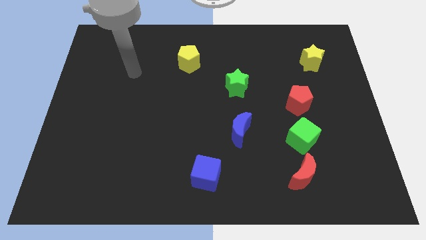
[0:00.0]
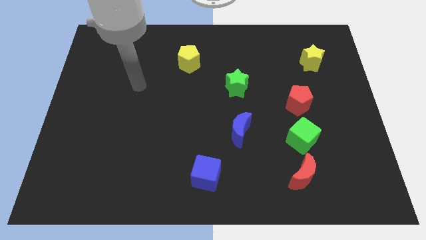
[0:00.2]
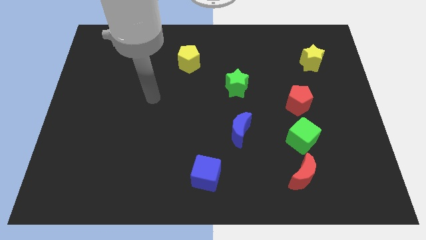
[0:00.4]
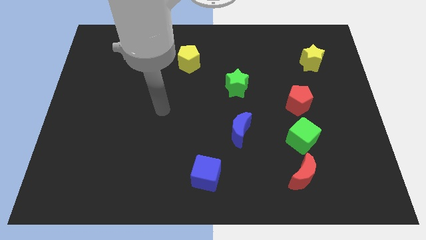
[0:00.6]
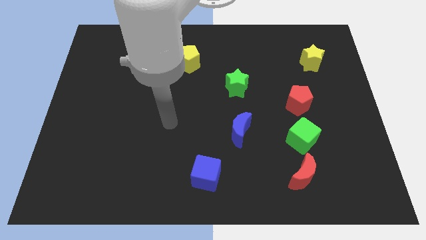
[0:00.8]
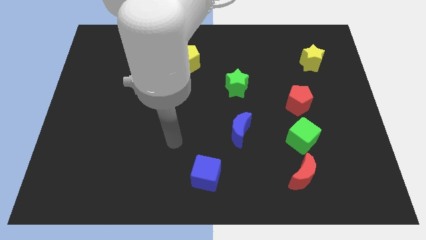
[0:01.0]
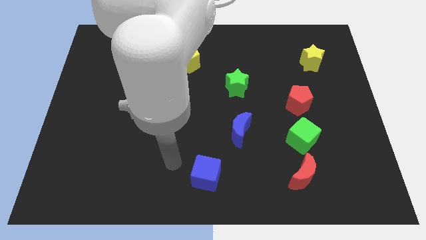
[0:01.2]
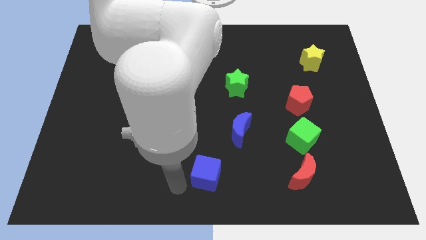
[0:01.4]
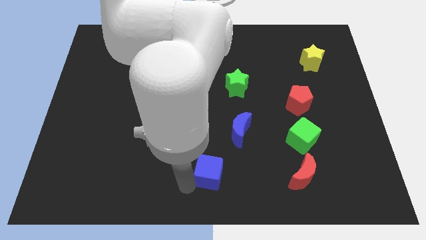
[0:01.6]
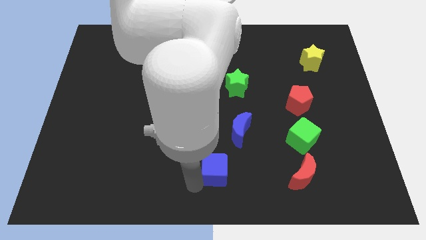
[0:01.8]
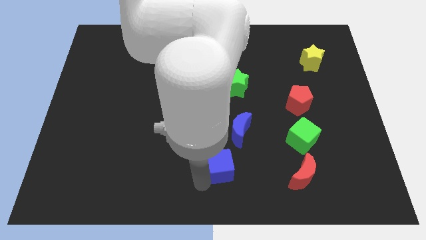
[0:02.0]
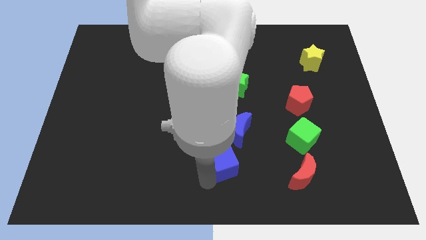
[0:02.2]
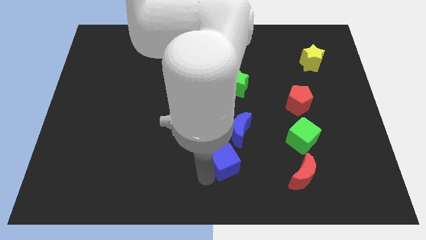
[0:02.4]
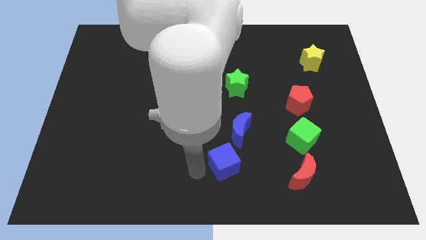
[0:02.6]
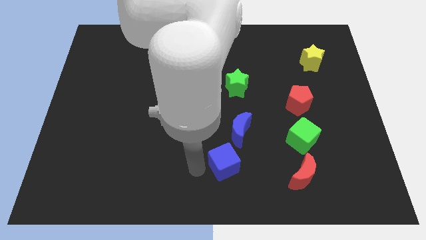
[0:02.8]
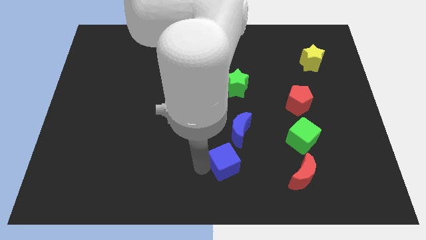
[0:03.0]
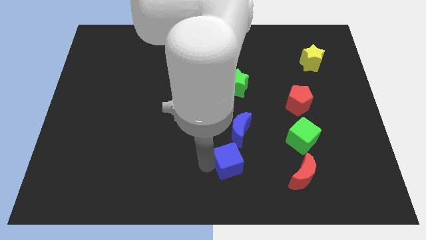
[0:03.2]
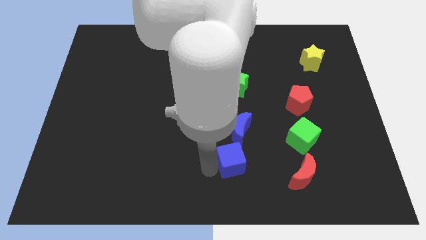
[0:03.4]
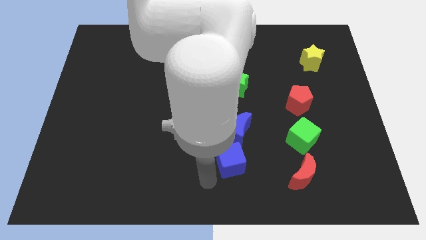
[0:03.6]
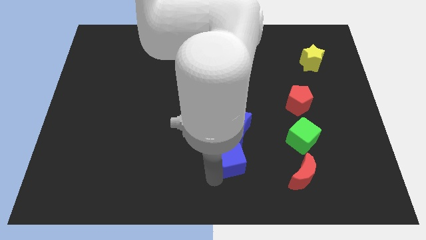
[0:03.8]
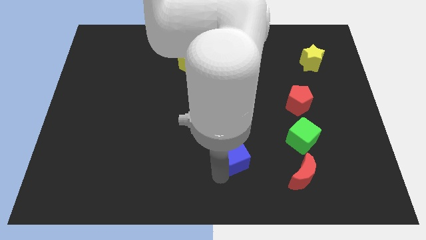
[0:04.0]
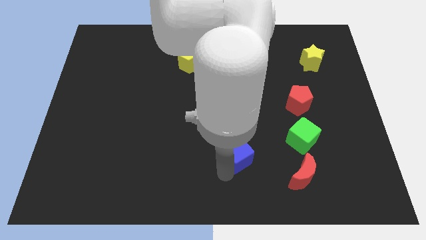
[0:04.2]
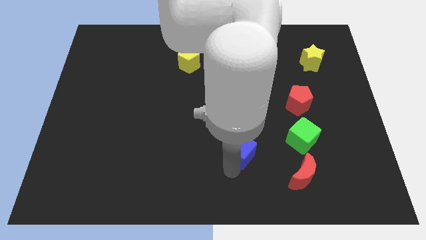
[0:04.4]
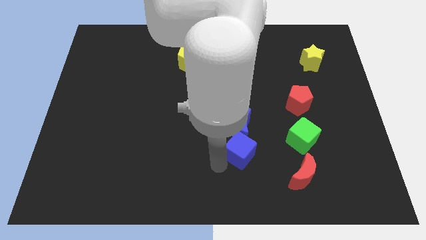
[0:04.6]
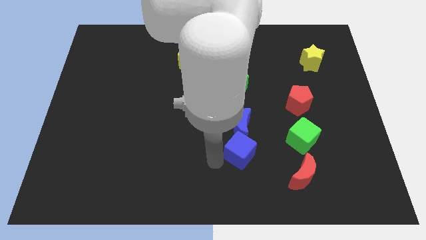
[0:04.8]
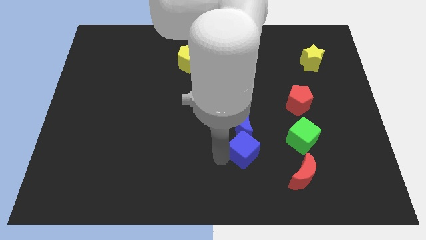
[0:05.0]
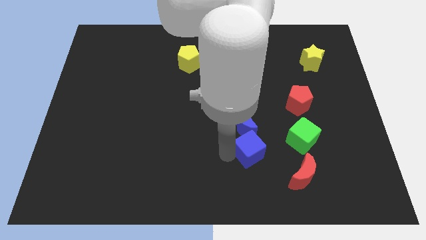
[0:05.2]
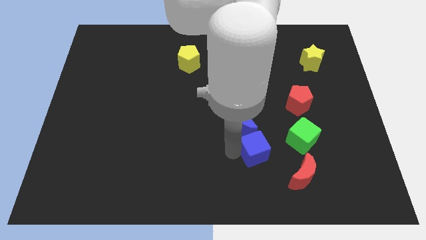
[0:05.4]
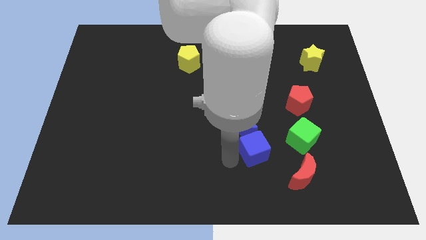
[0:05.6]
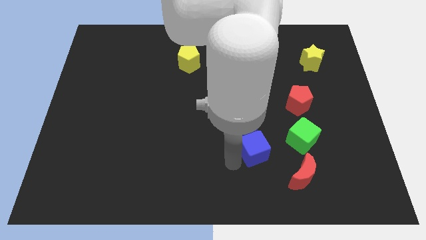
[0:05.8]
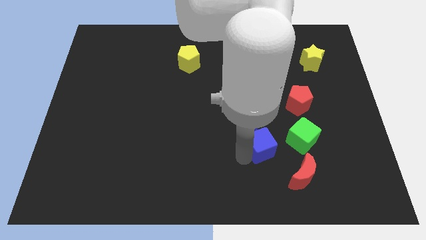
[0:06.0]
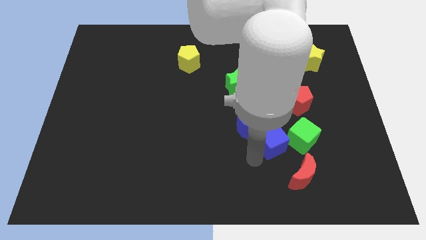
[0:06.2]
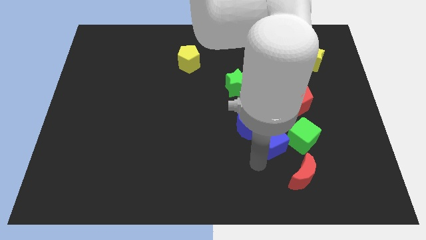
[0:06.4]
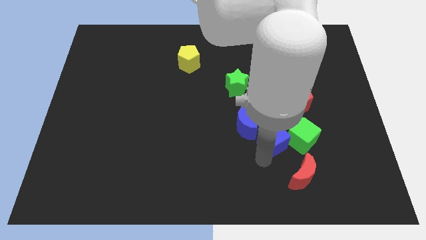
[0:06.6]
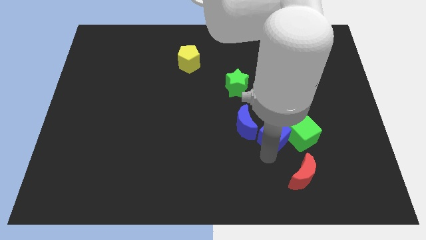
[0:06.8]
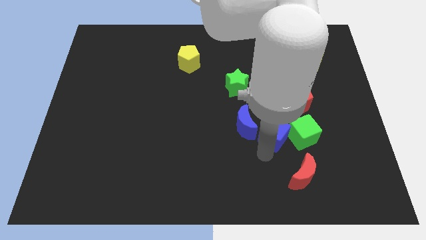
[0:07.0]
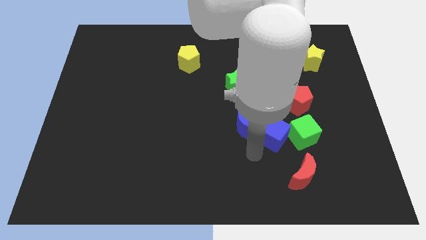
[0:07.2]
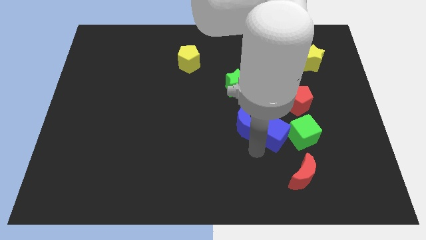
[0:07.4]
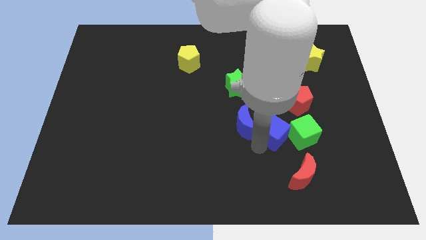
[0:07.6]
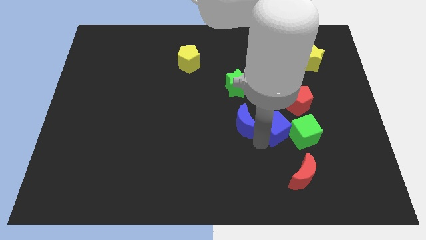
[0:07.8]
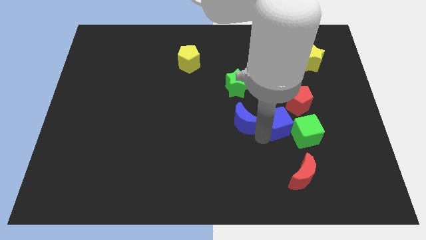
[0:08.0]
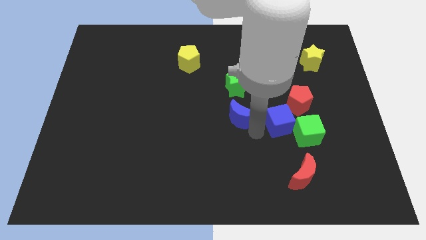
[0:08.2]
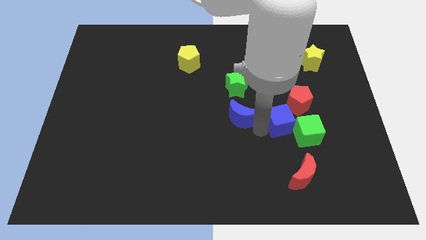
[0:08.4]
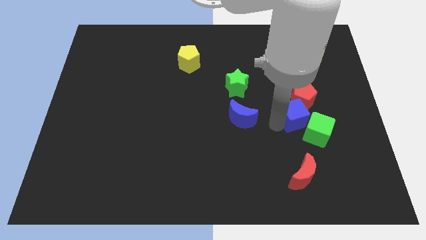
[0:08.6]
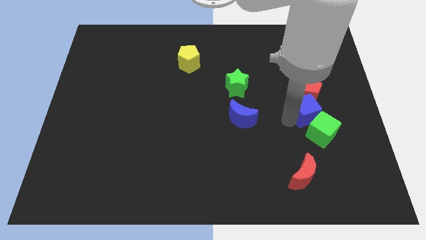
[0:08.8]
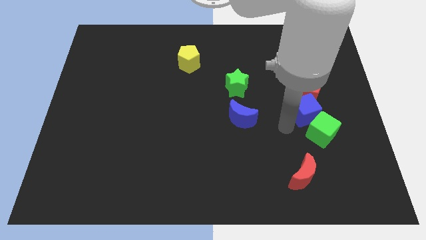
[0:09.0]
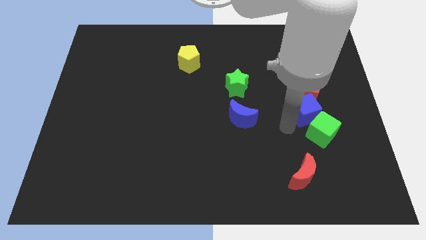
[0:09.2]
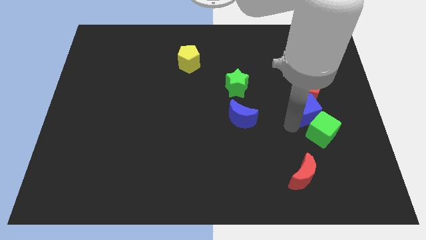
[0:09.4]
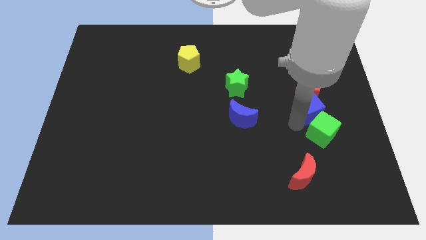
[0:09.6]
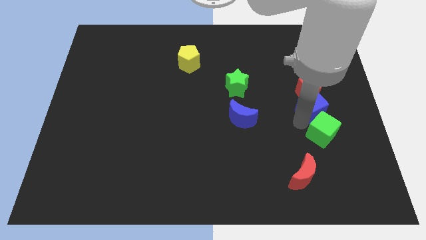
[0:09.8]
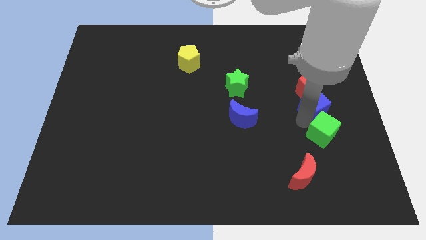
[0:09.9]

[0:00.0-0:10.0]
move the blue cube to the bottom of the yellow star

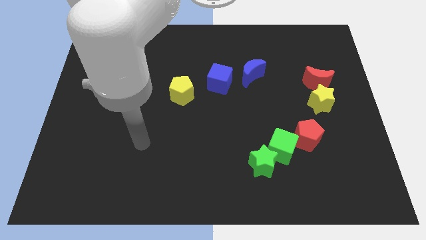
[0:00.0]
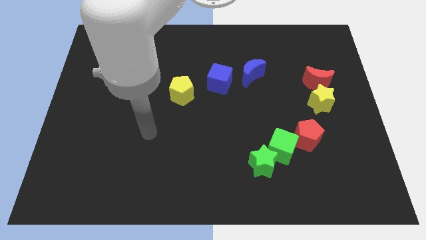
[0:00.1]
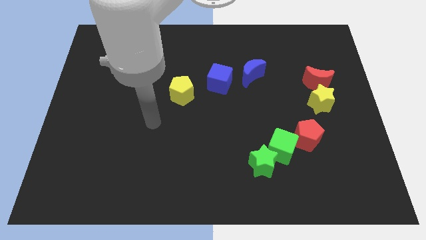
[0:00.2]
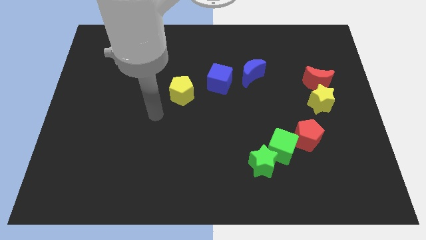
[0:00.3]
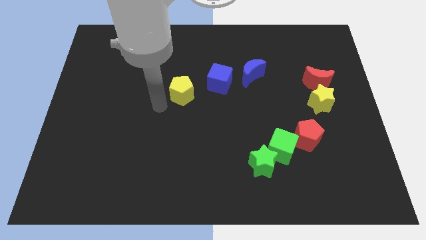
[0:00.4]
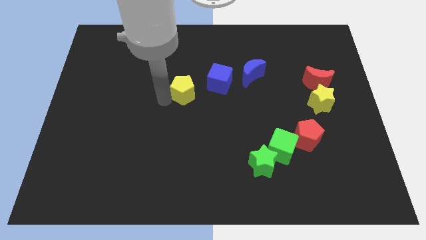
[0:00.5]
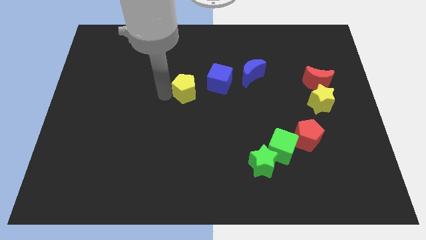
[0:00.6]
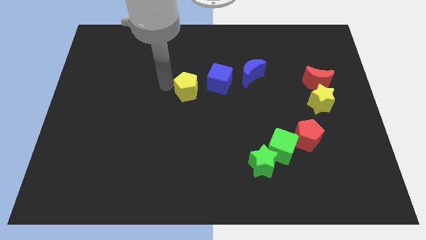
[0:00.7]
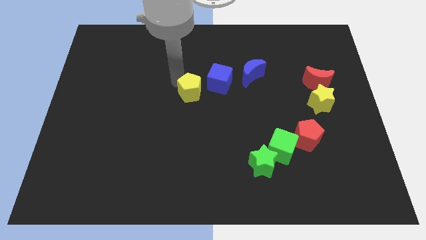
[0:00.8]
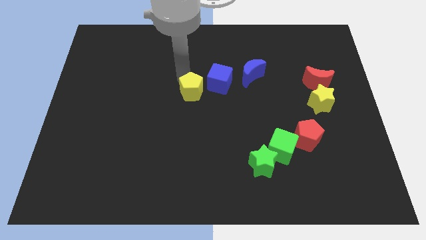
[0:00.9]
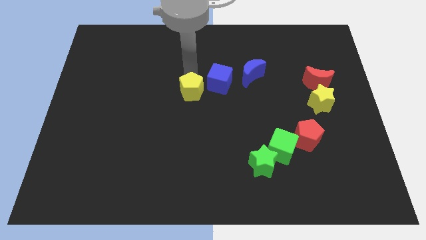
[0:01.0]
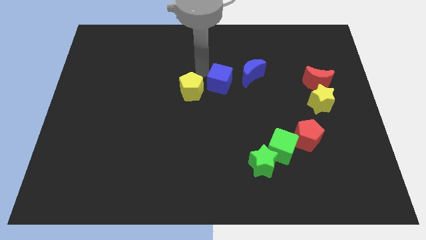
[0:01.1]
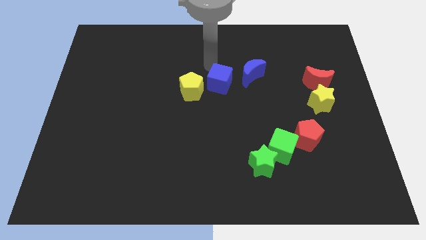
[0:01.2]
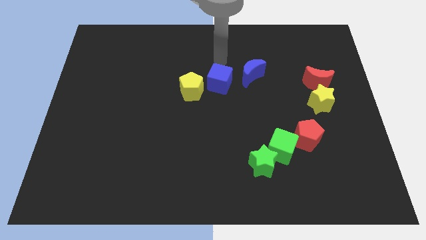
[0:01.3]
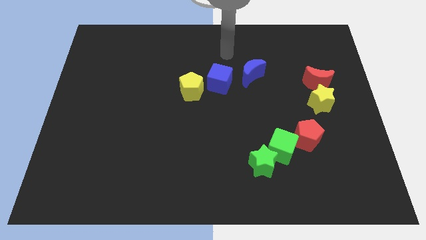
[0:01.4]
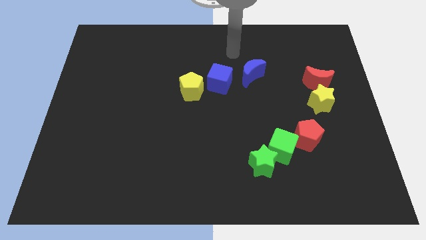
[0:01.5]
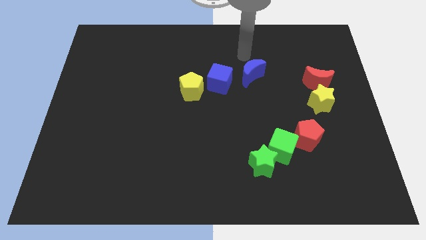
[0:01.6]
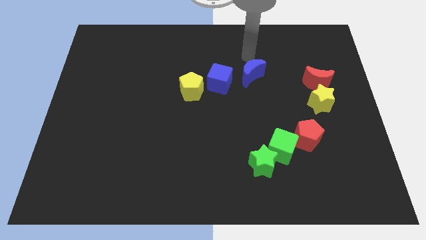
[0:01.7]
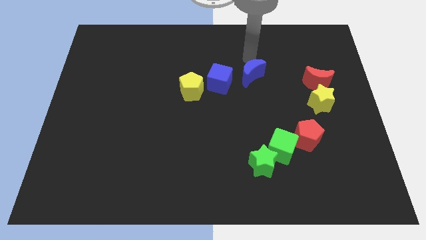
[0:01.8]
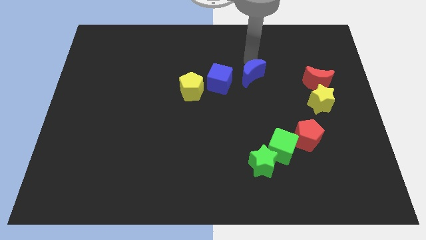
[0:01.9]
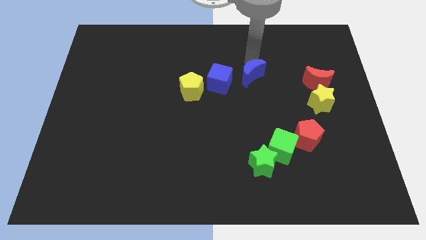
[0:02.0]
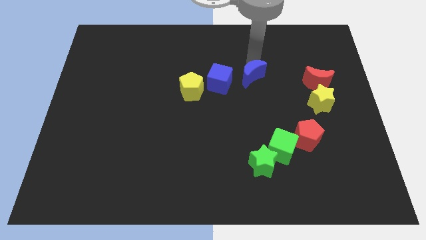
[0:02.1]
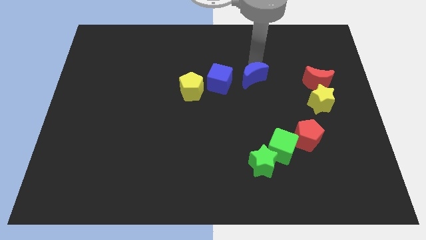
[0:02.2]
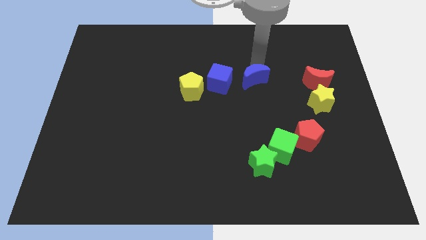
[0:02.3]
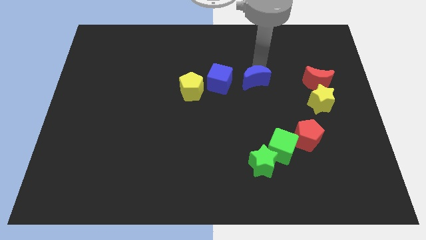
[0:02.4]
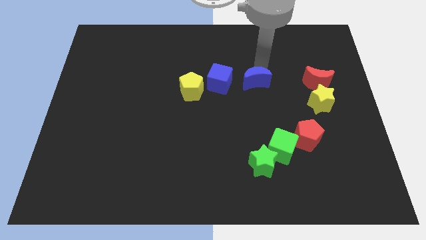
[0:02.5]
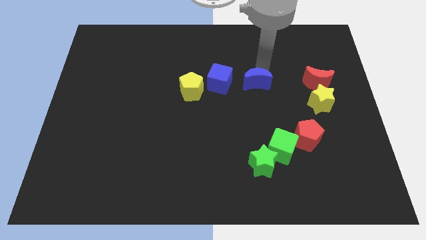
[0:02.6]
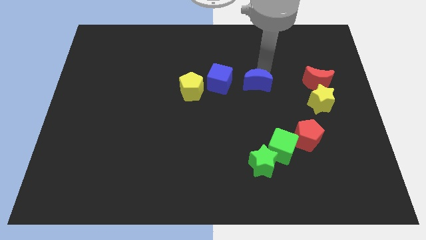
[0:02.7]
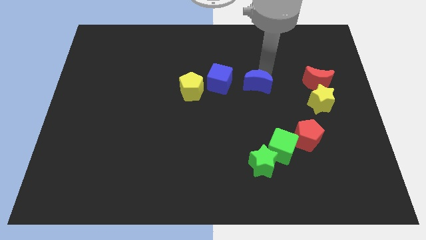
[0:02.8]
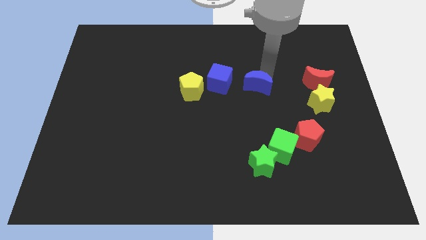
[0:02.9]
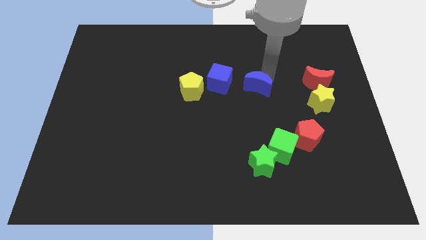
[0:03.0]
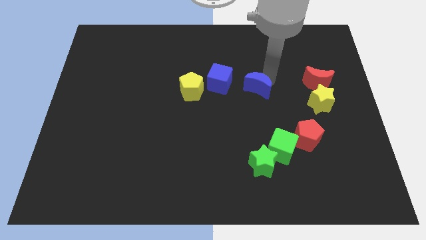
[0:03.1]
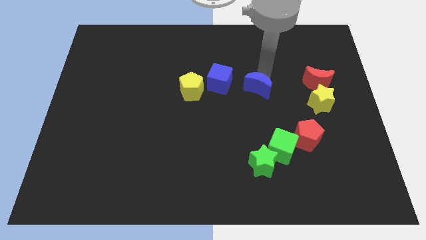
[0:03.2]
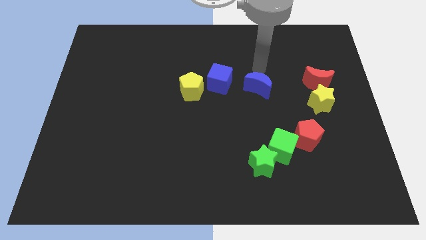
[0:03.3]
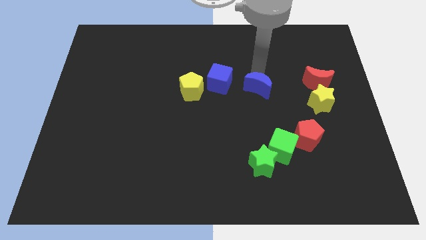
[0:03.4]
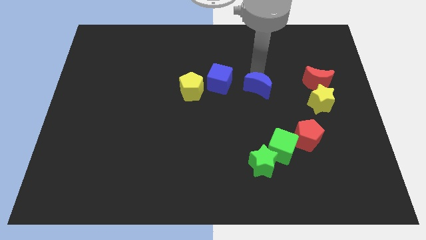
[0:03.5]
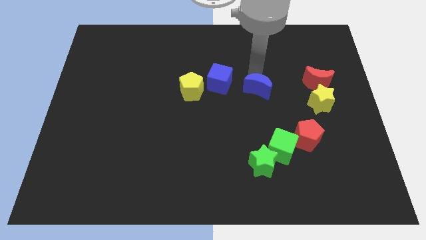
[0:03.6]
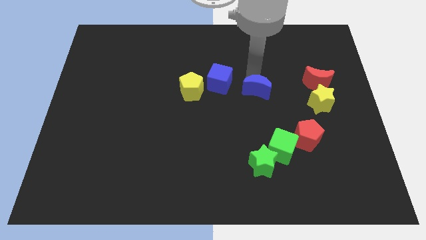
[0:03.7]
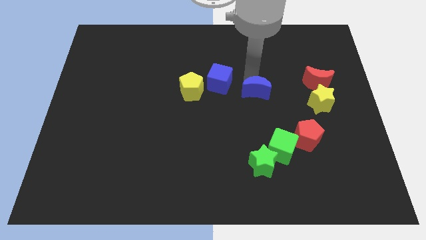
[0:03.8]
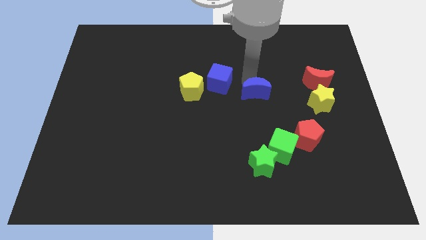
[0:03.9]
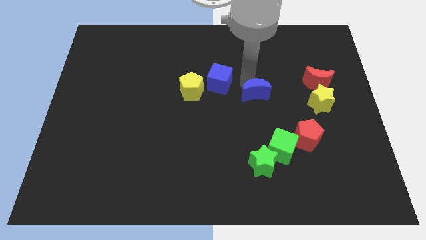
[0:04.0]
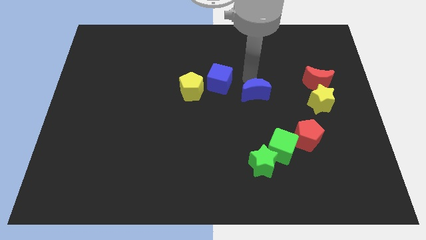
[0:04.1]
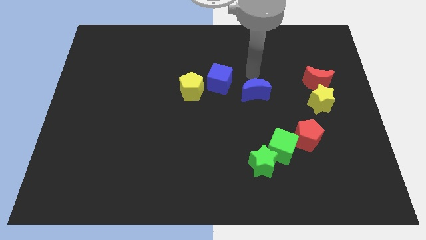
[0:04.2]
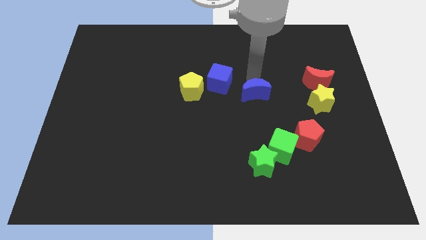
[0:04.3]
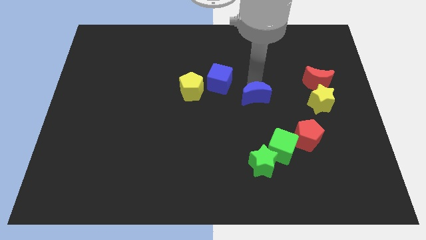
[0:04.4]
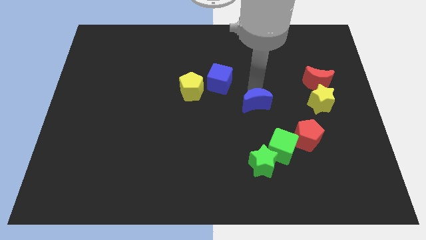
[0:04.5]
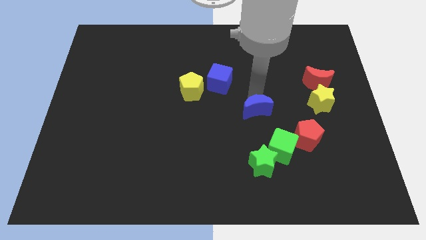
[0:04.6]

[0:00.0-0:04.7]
put the blue moon to the top side of the green star
